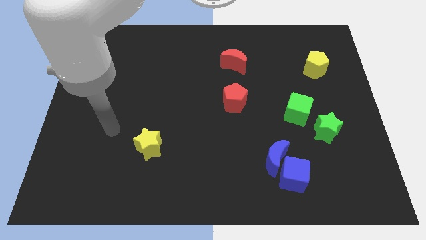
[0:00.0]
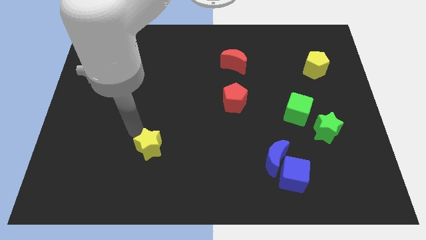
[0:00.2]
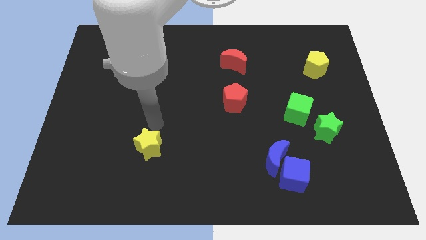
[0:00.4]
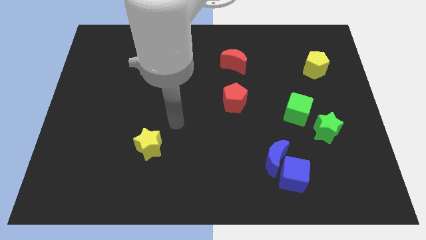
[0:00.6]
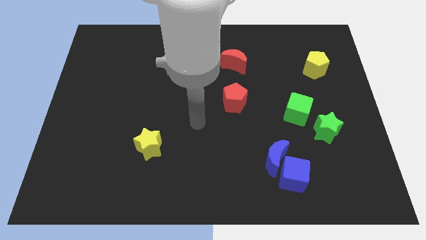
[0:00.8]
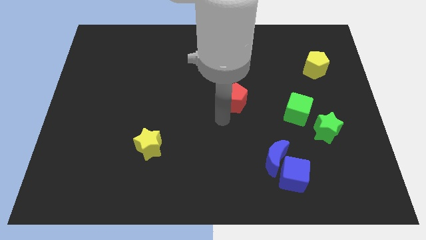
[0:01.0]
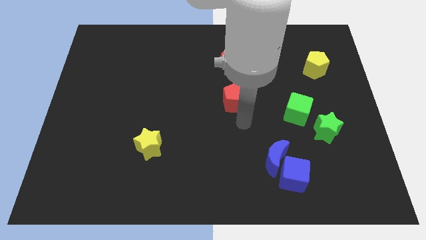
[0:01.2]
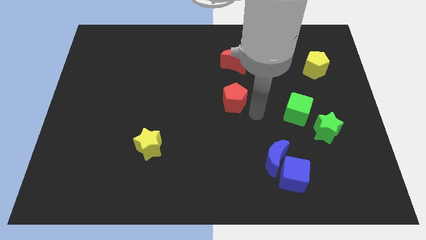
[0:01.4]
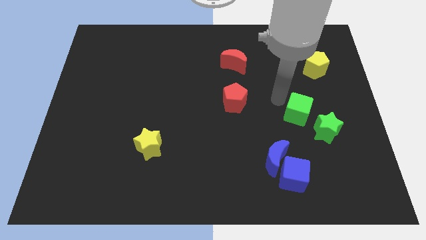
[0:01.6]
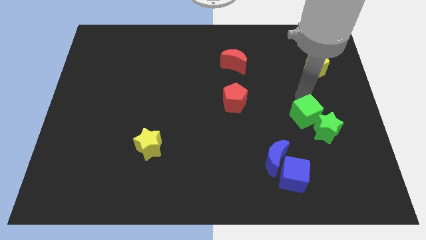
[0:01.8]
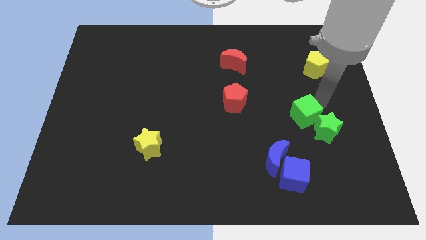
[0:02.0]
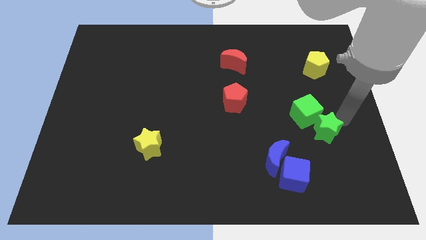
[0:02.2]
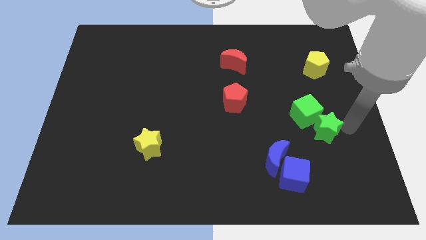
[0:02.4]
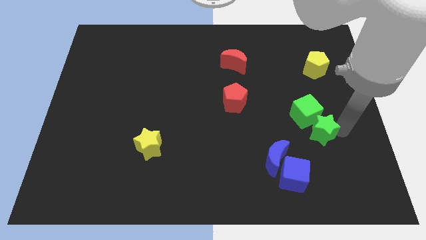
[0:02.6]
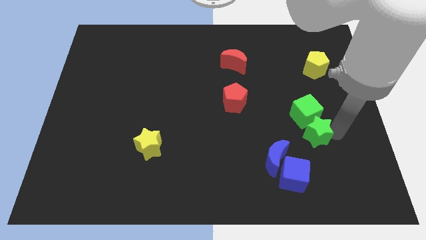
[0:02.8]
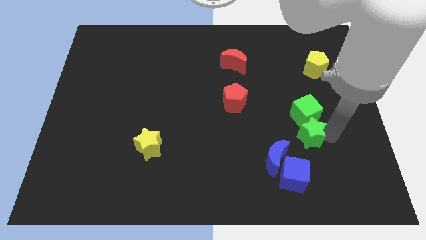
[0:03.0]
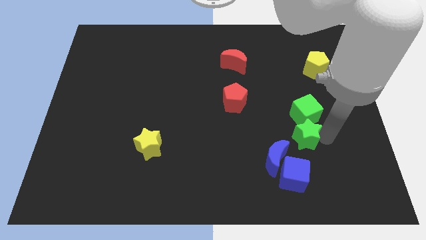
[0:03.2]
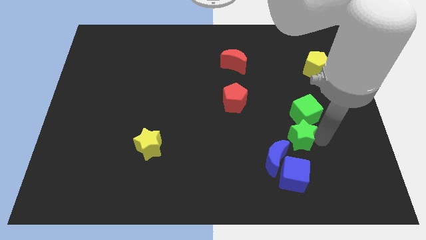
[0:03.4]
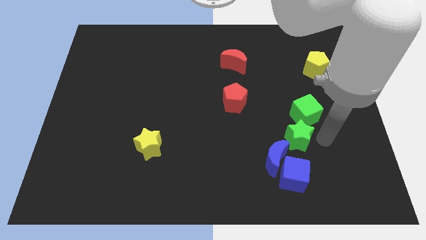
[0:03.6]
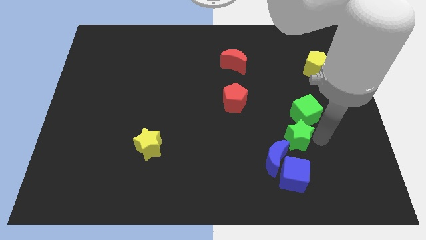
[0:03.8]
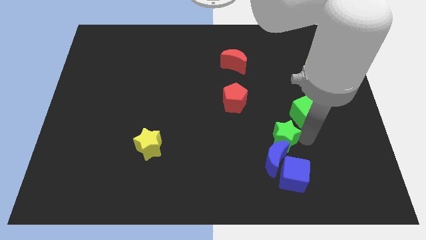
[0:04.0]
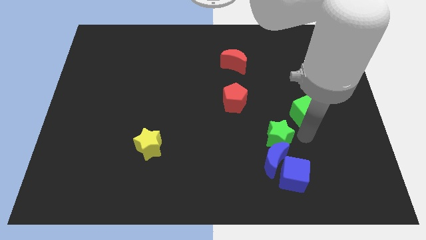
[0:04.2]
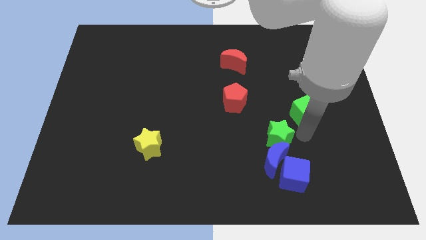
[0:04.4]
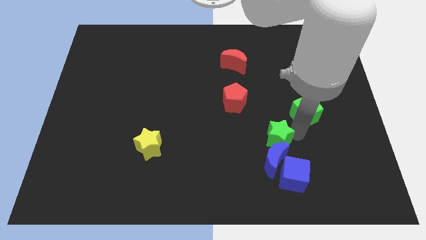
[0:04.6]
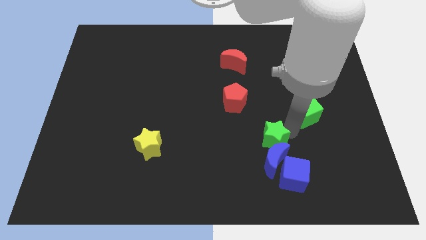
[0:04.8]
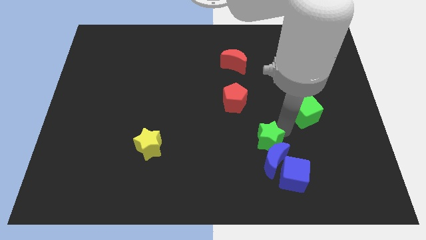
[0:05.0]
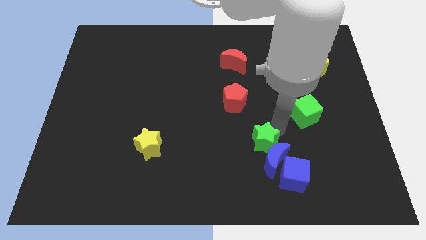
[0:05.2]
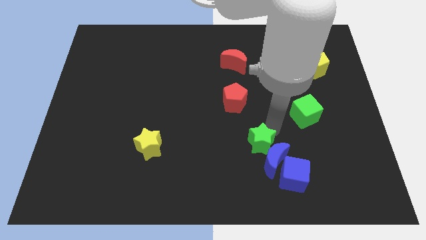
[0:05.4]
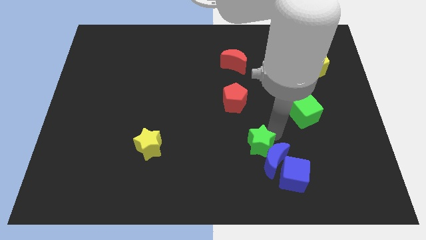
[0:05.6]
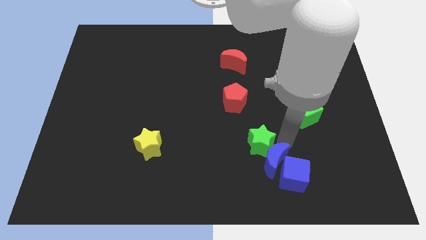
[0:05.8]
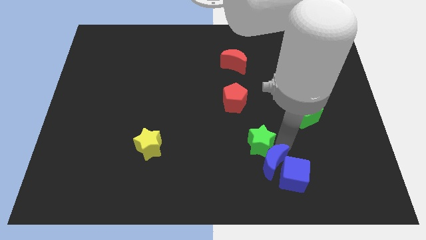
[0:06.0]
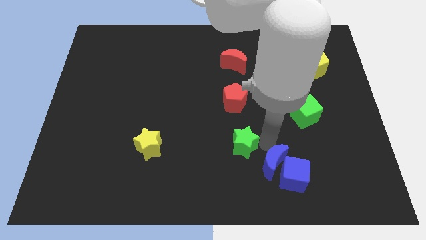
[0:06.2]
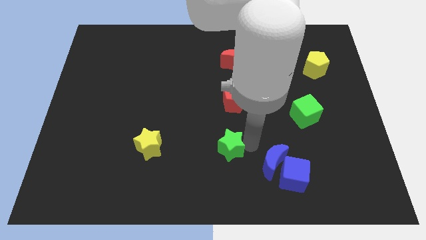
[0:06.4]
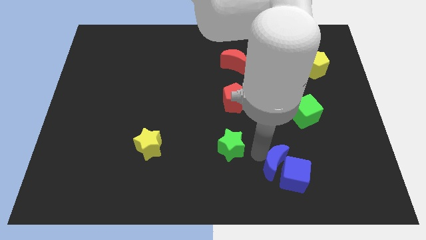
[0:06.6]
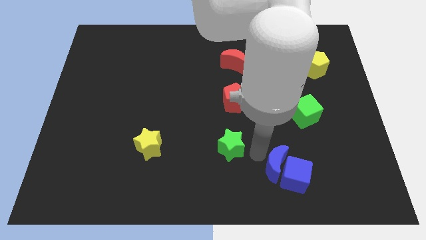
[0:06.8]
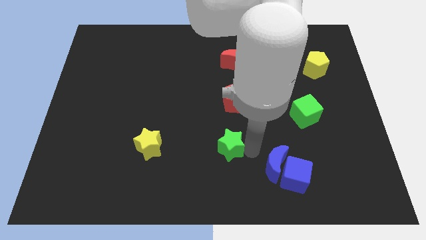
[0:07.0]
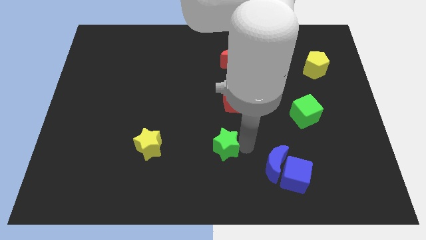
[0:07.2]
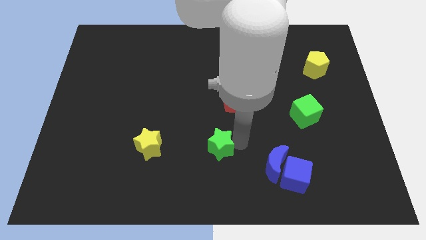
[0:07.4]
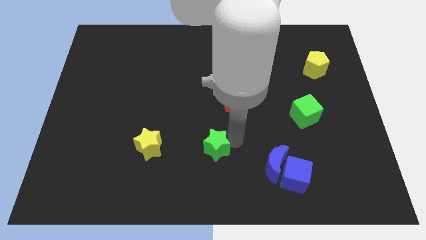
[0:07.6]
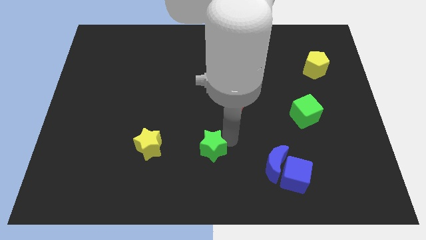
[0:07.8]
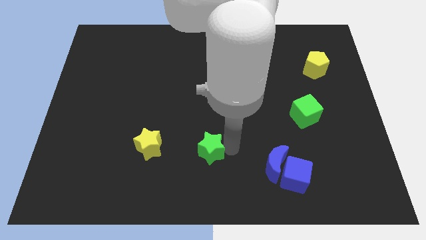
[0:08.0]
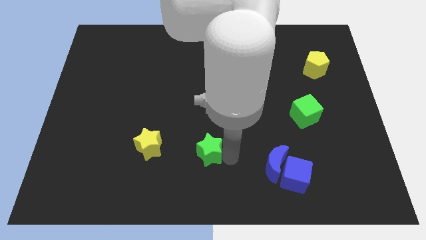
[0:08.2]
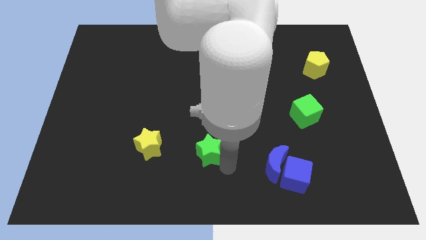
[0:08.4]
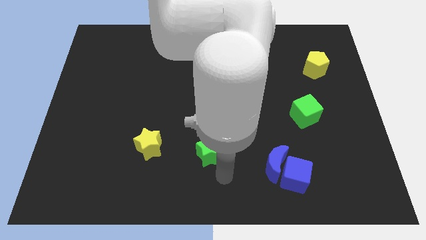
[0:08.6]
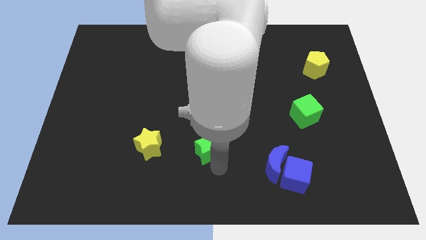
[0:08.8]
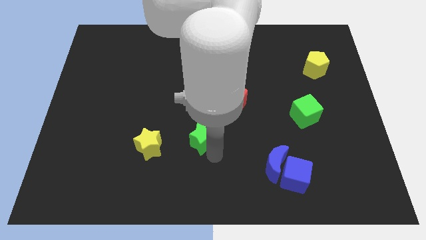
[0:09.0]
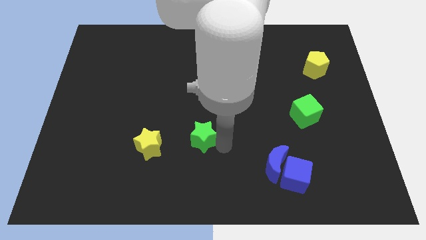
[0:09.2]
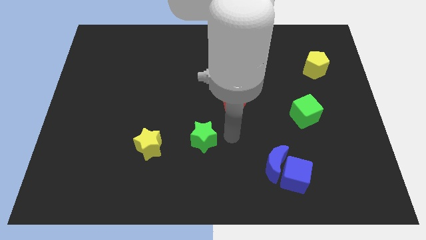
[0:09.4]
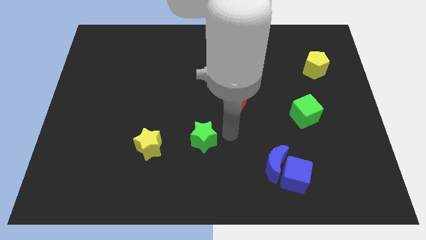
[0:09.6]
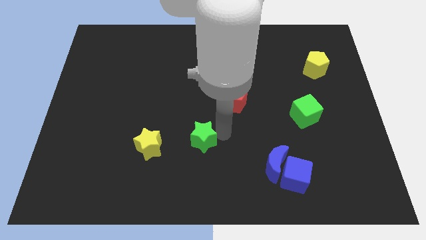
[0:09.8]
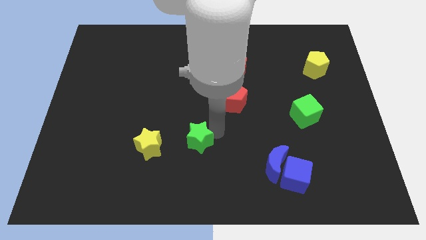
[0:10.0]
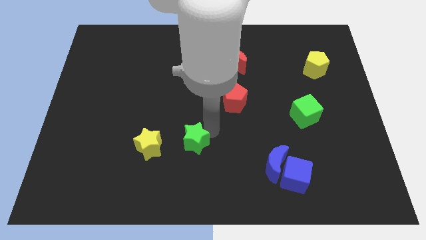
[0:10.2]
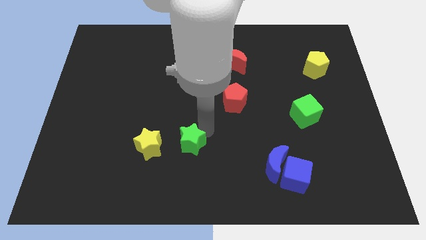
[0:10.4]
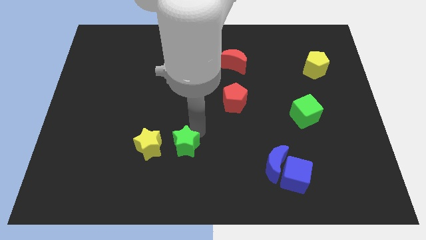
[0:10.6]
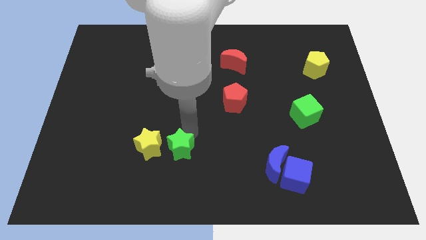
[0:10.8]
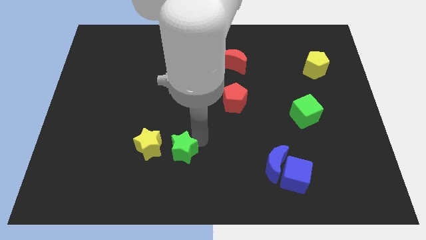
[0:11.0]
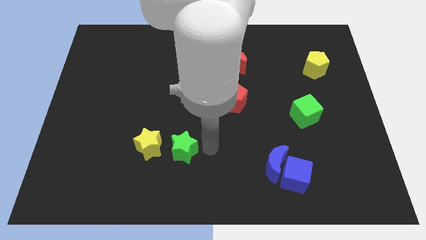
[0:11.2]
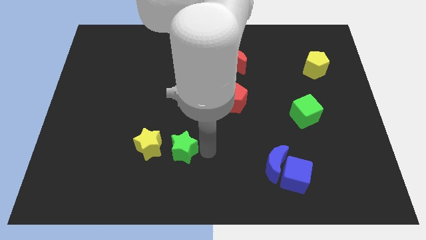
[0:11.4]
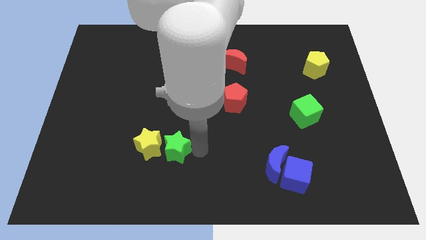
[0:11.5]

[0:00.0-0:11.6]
push the green star next to the yellow star

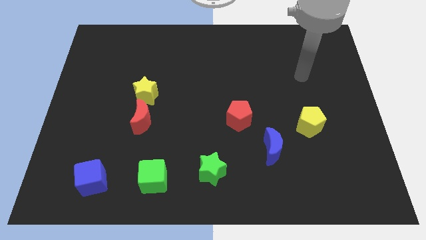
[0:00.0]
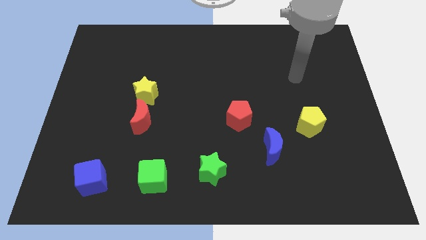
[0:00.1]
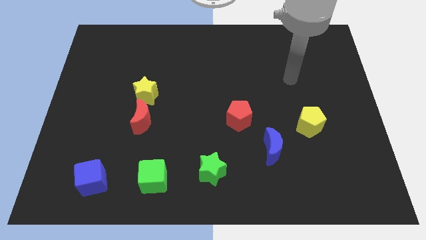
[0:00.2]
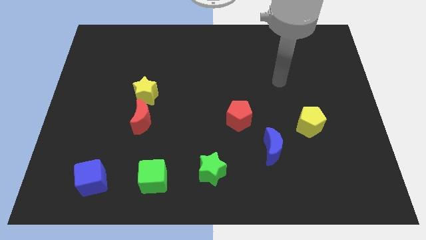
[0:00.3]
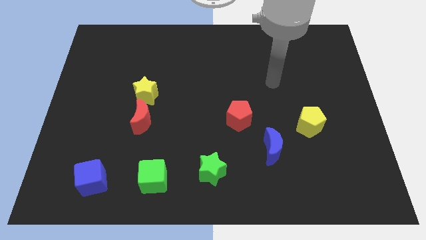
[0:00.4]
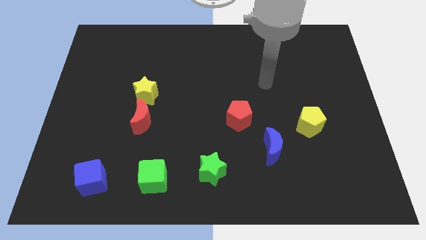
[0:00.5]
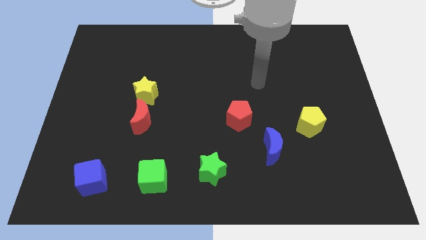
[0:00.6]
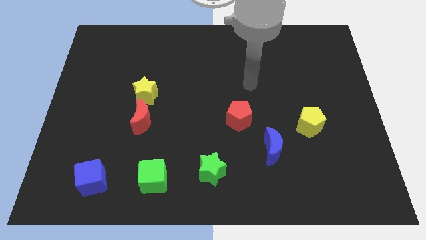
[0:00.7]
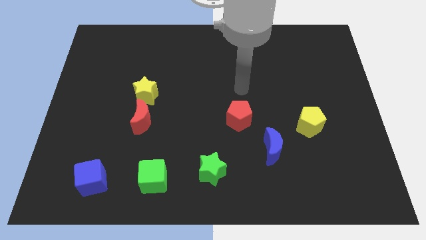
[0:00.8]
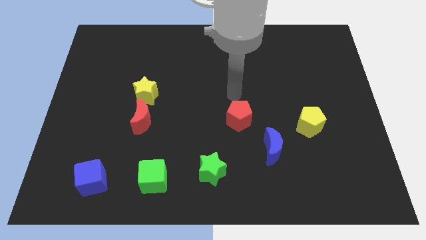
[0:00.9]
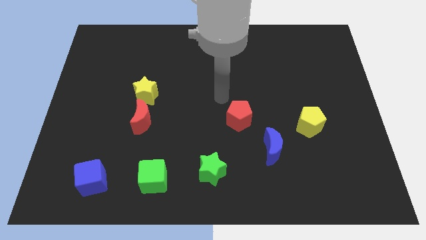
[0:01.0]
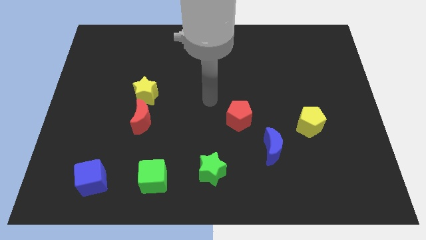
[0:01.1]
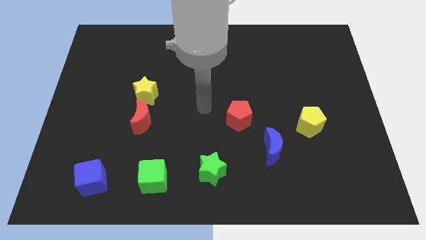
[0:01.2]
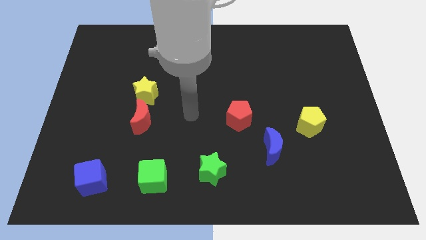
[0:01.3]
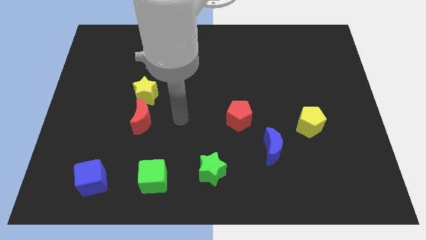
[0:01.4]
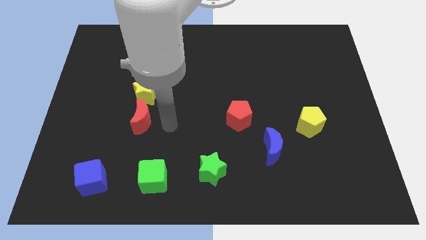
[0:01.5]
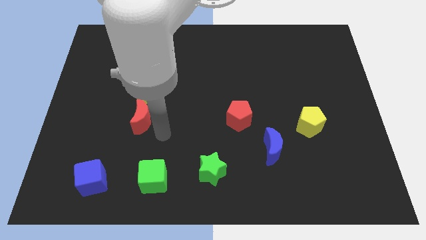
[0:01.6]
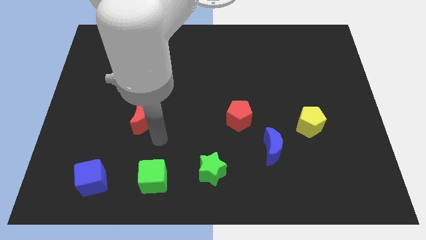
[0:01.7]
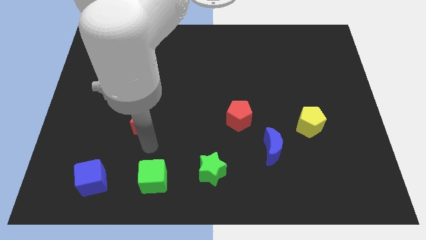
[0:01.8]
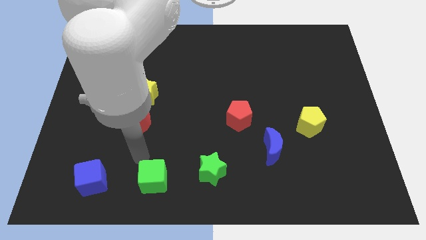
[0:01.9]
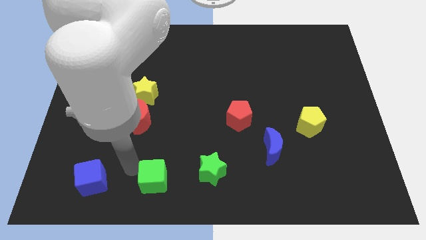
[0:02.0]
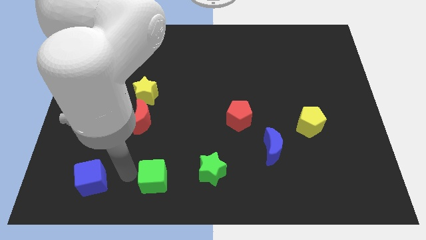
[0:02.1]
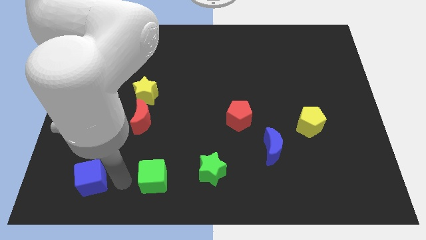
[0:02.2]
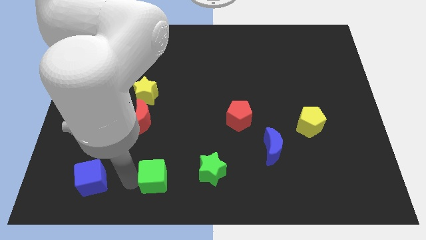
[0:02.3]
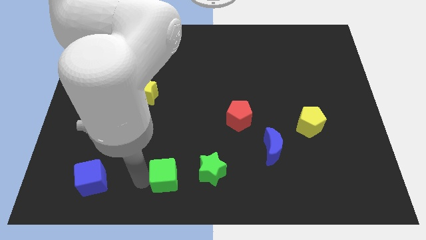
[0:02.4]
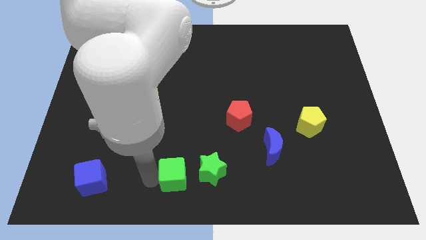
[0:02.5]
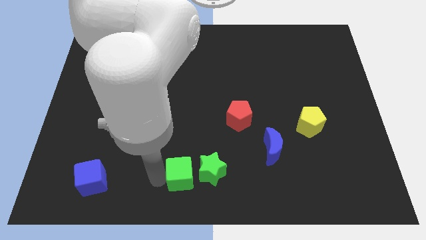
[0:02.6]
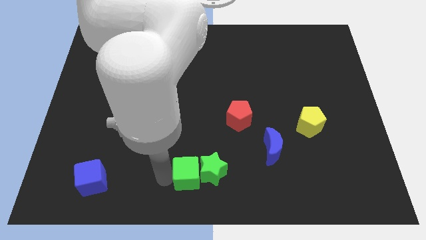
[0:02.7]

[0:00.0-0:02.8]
move the green cube towards the green star
